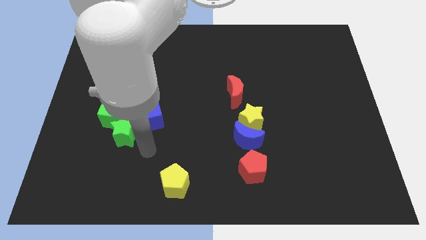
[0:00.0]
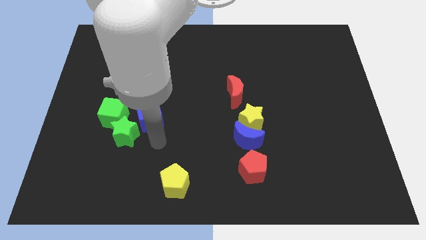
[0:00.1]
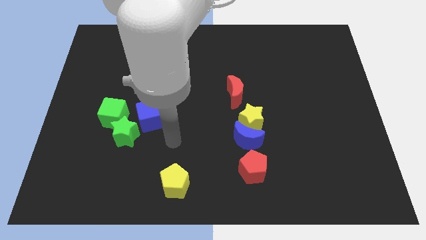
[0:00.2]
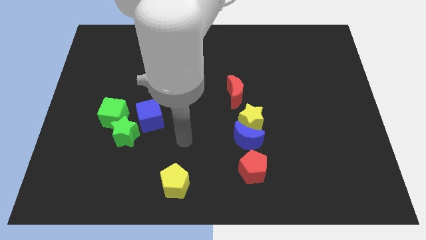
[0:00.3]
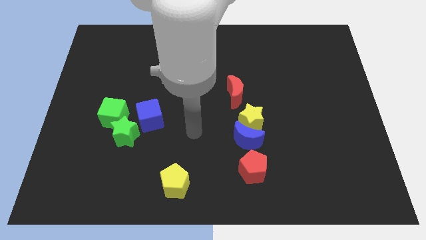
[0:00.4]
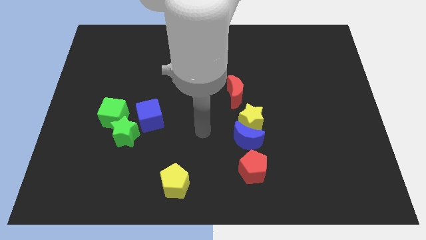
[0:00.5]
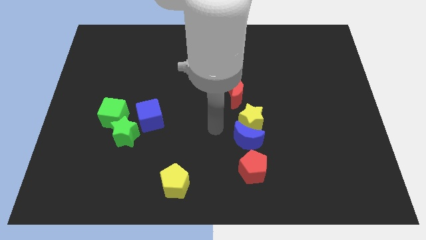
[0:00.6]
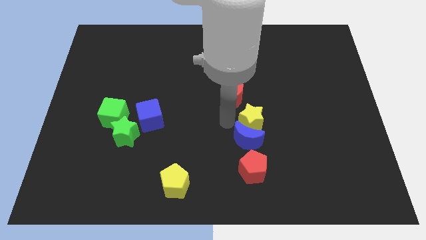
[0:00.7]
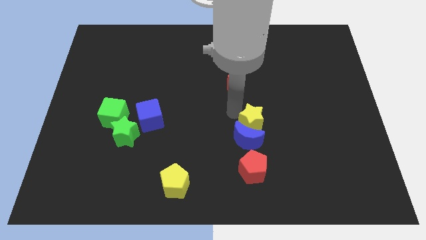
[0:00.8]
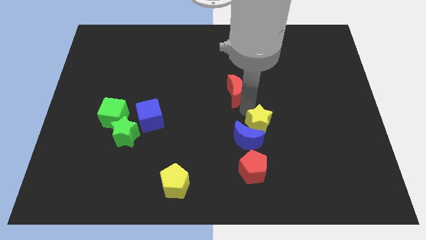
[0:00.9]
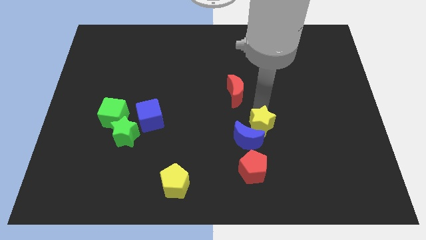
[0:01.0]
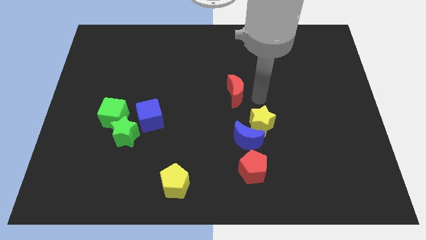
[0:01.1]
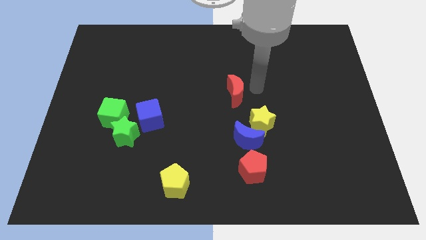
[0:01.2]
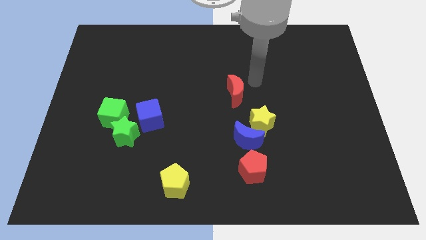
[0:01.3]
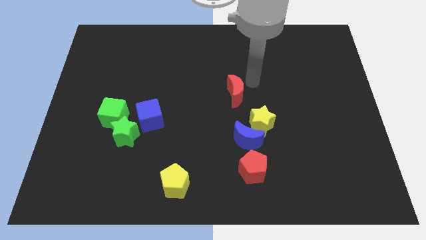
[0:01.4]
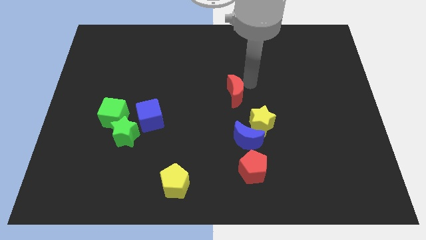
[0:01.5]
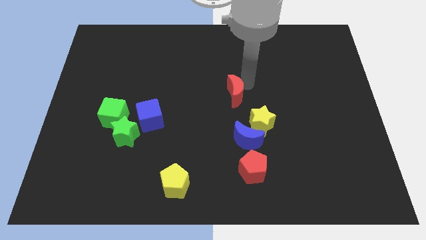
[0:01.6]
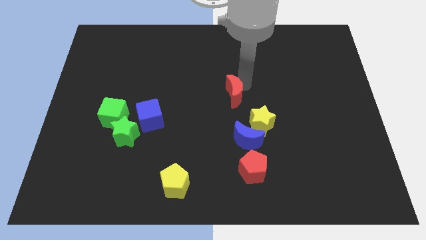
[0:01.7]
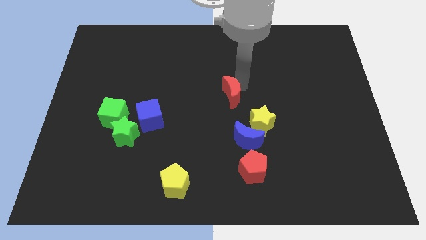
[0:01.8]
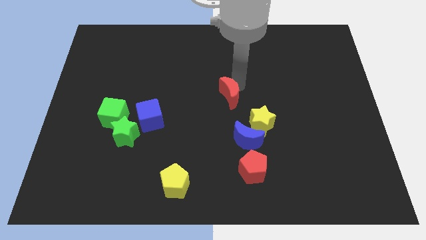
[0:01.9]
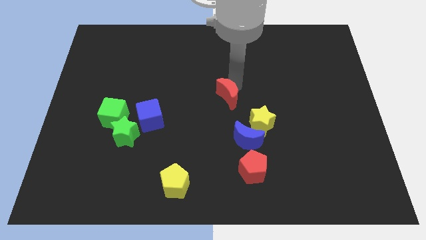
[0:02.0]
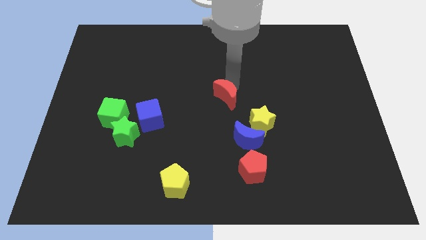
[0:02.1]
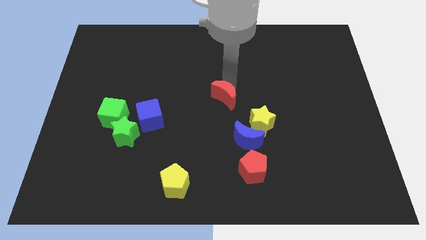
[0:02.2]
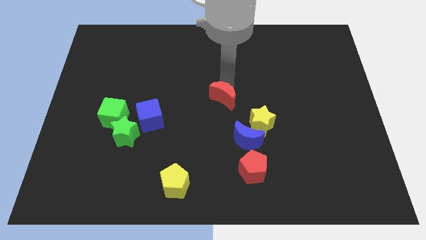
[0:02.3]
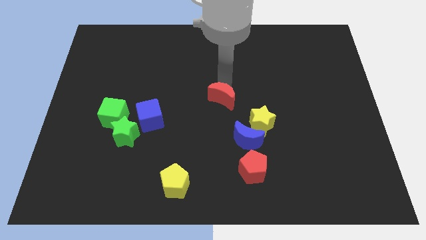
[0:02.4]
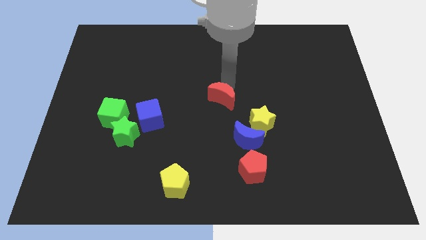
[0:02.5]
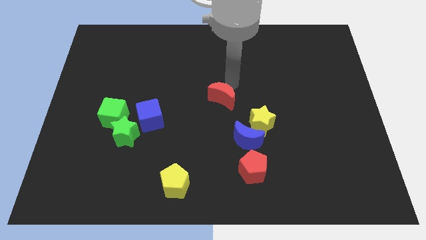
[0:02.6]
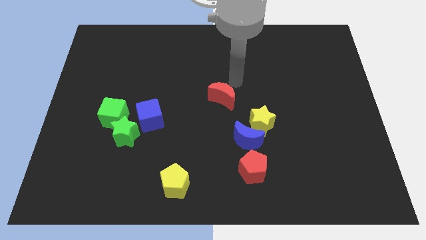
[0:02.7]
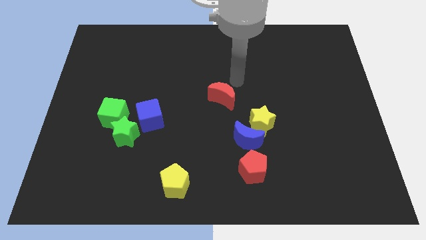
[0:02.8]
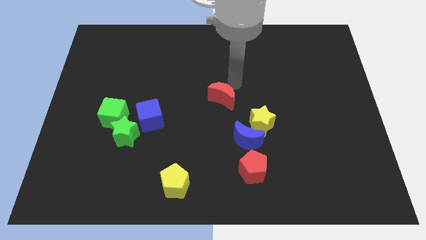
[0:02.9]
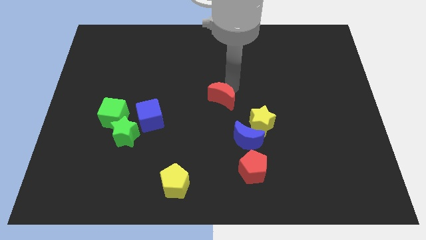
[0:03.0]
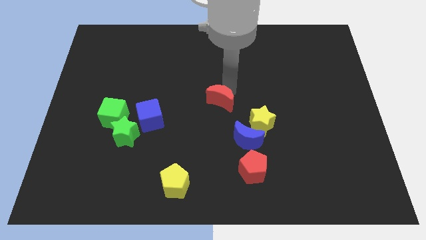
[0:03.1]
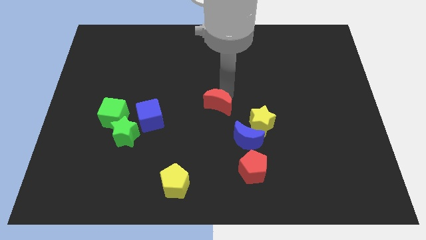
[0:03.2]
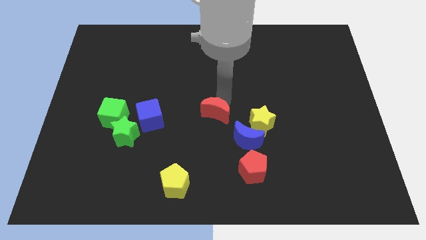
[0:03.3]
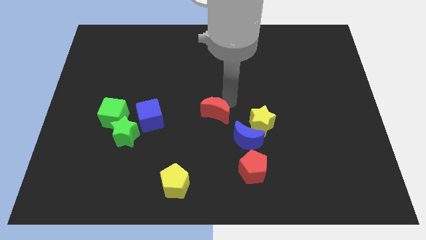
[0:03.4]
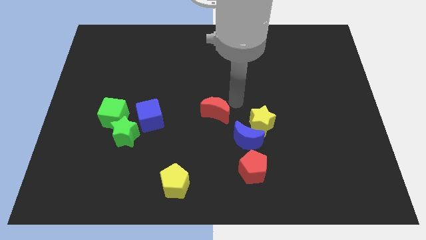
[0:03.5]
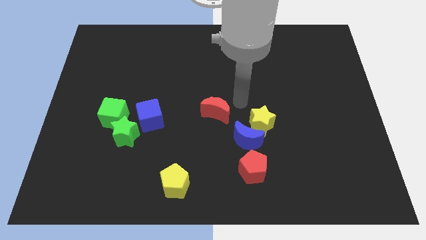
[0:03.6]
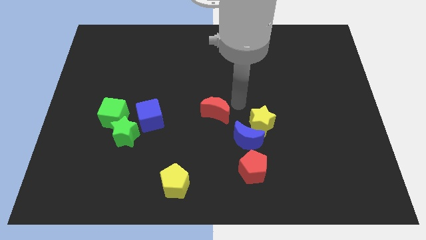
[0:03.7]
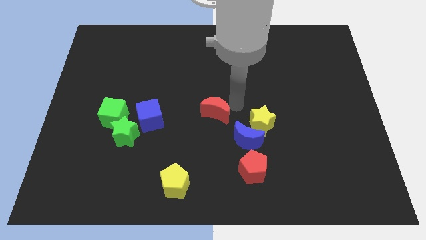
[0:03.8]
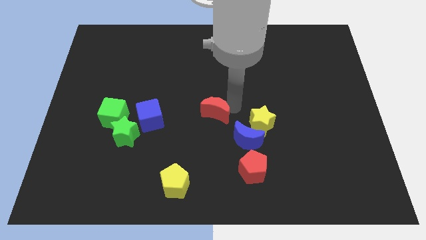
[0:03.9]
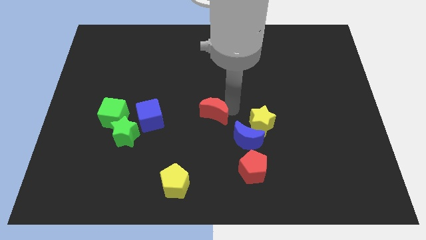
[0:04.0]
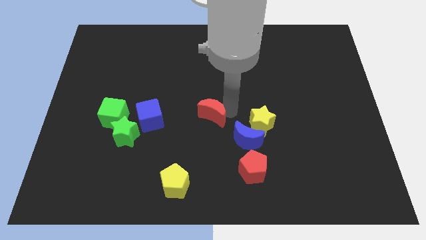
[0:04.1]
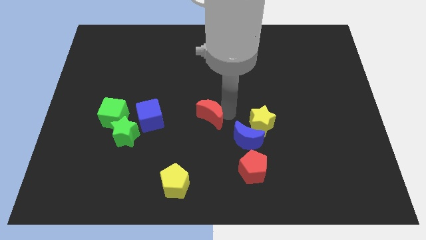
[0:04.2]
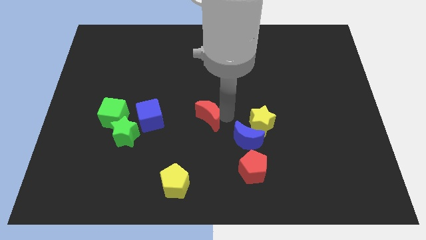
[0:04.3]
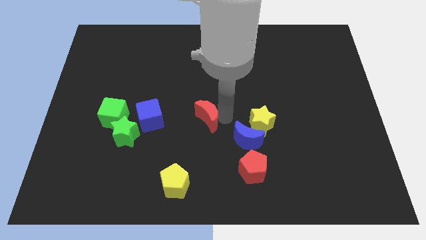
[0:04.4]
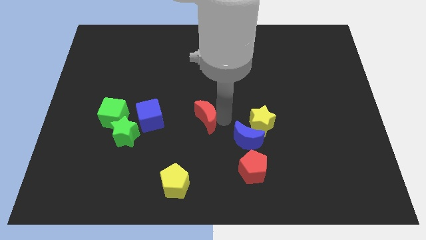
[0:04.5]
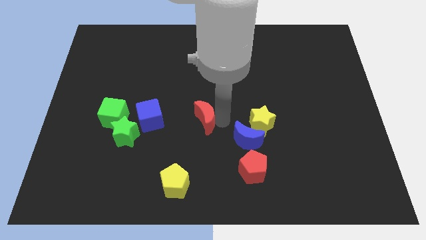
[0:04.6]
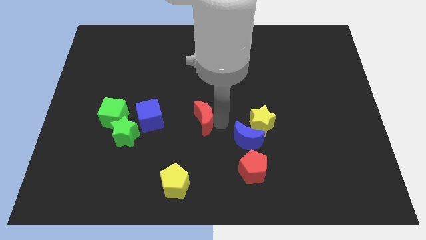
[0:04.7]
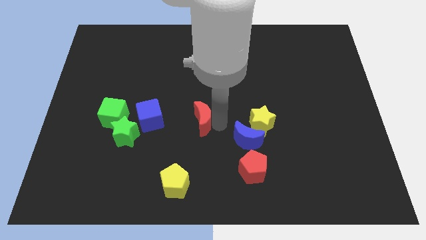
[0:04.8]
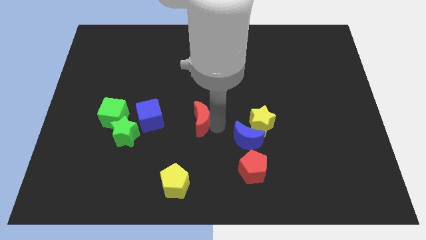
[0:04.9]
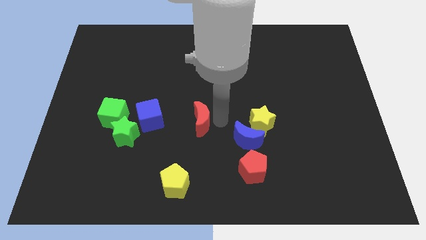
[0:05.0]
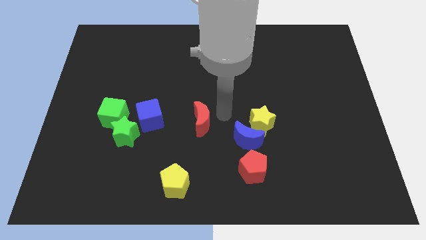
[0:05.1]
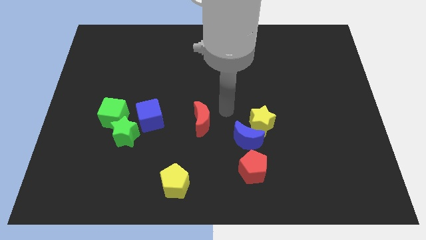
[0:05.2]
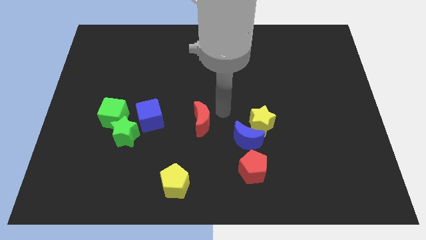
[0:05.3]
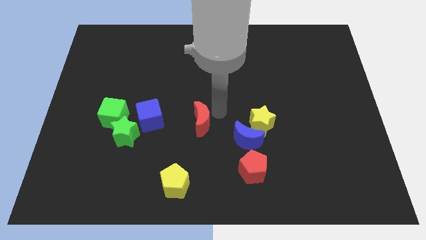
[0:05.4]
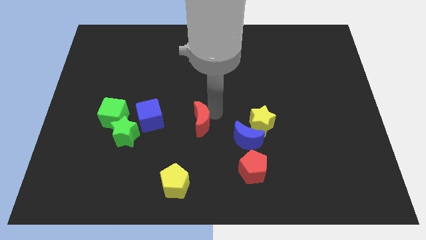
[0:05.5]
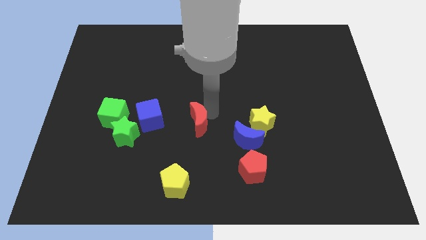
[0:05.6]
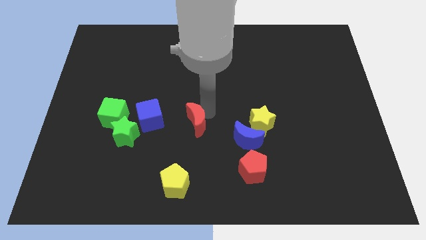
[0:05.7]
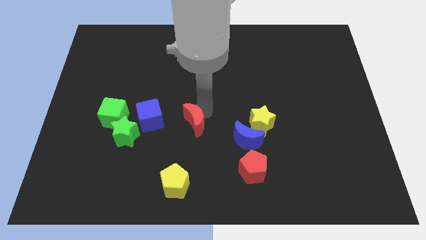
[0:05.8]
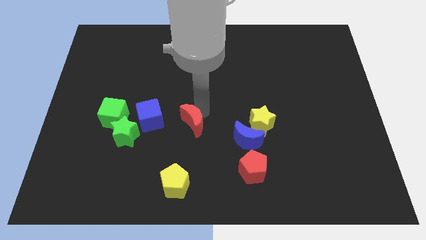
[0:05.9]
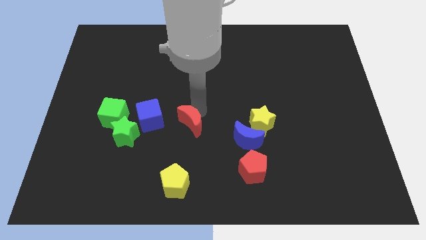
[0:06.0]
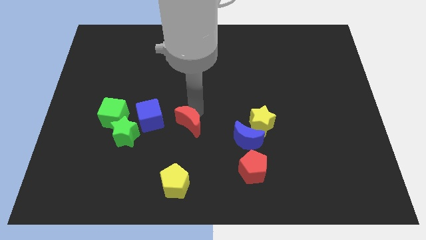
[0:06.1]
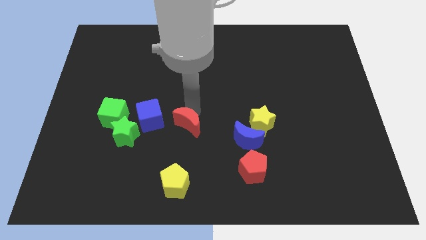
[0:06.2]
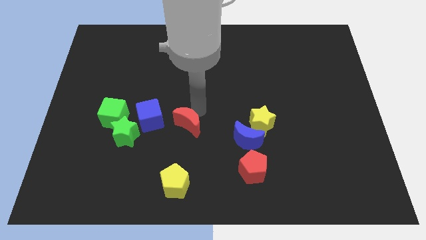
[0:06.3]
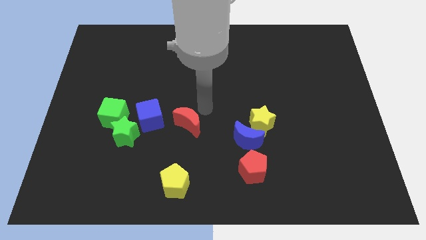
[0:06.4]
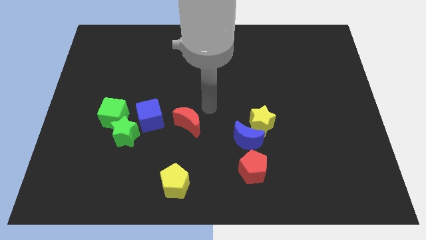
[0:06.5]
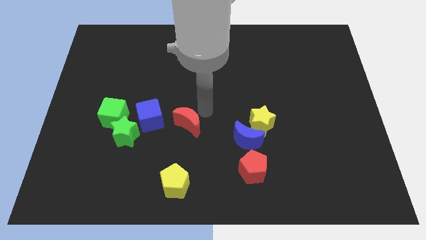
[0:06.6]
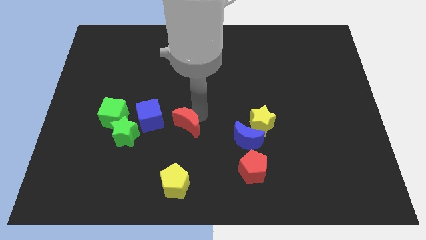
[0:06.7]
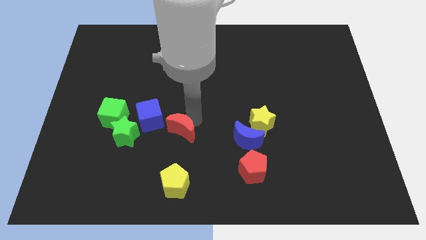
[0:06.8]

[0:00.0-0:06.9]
push the red moon to the bottom right of the blue cube

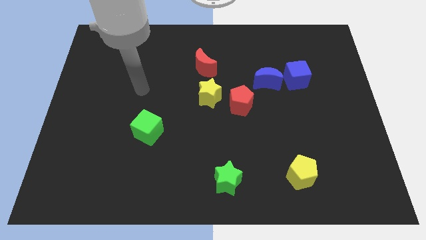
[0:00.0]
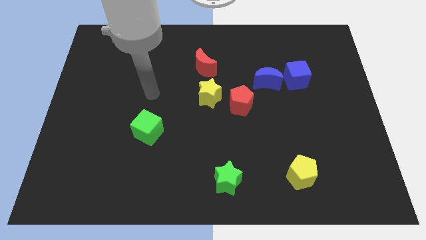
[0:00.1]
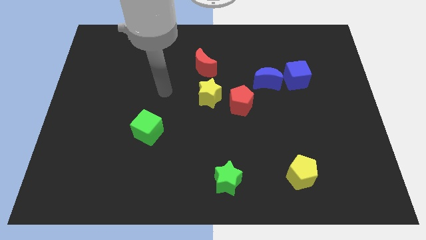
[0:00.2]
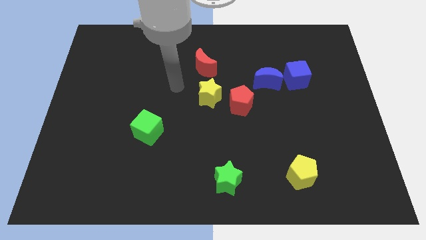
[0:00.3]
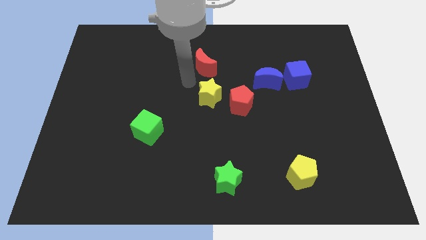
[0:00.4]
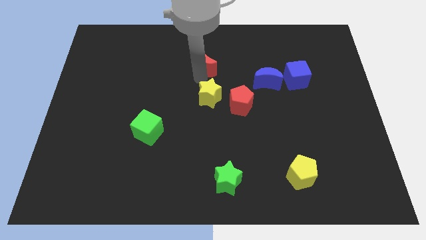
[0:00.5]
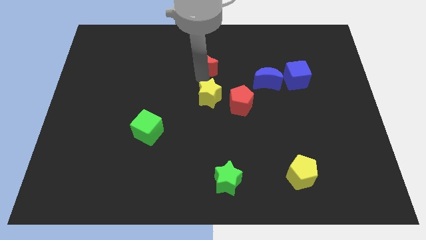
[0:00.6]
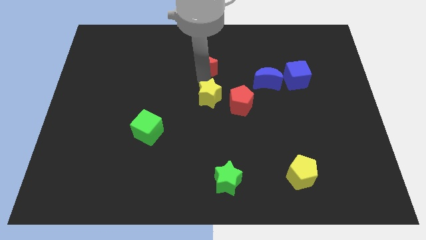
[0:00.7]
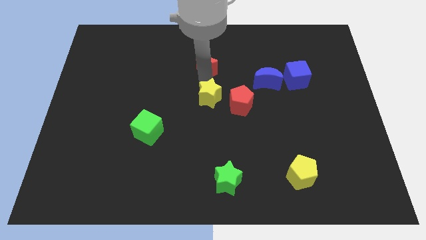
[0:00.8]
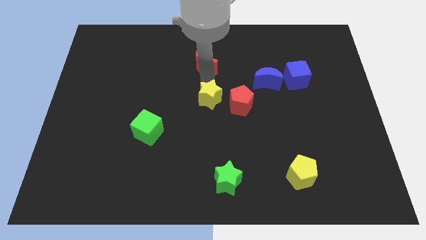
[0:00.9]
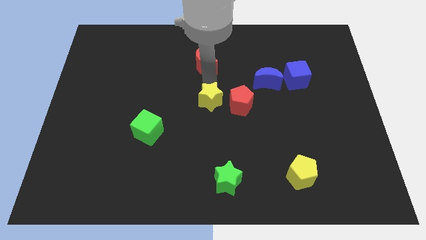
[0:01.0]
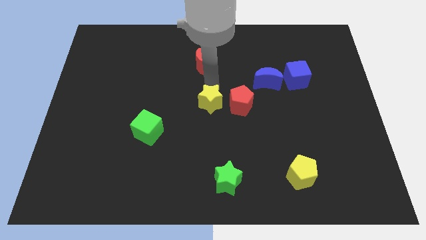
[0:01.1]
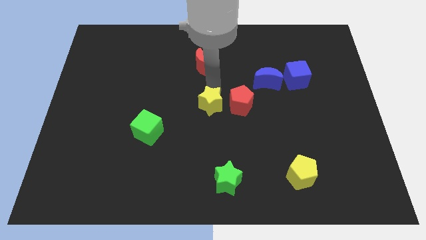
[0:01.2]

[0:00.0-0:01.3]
slide the yellow star to the bottom left side of the red pentagon

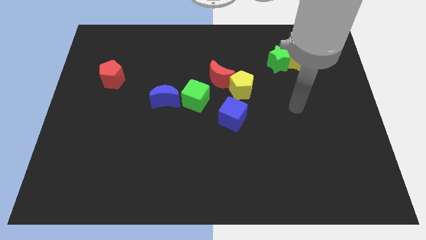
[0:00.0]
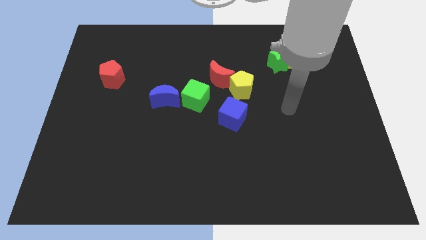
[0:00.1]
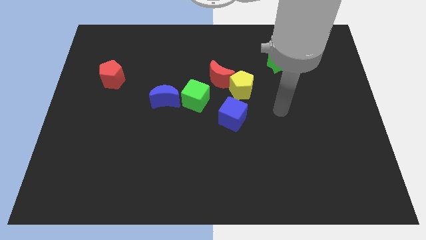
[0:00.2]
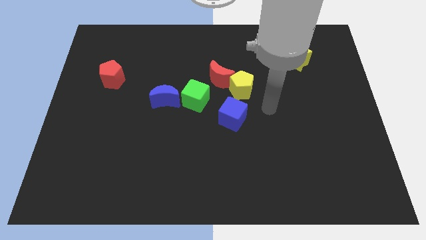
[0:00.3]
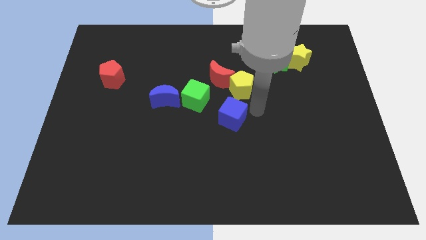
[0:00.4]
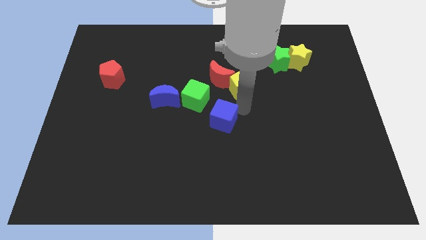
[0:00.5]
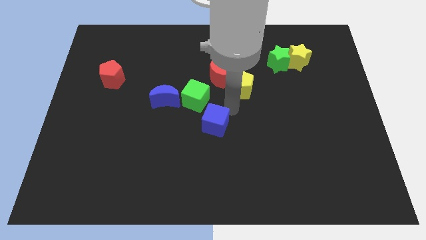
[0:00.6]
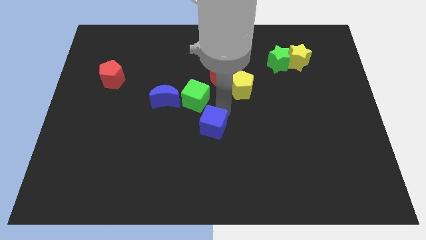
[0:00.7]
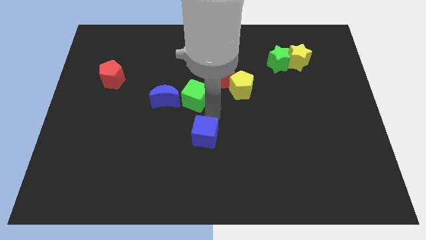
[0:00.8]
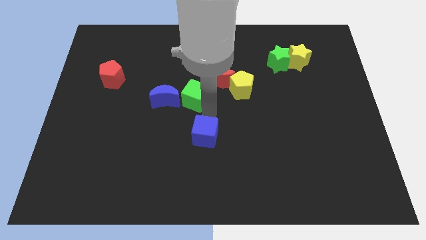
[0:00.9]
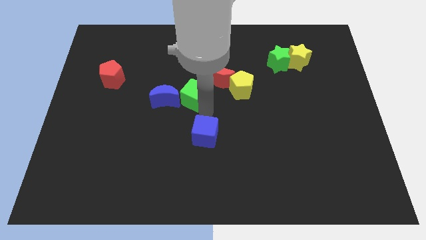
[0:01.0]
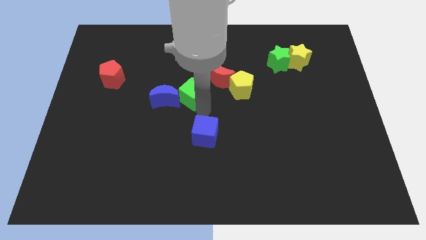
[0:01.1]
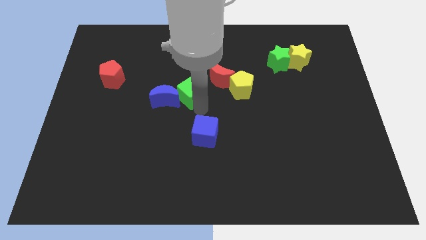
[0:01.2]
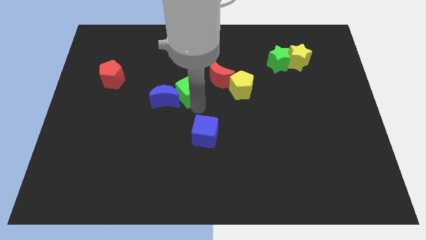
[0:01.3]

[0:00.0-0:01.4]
push the green cube to the left of the red moon
